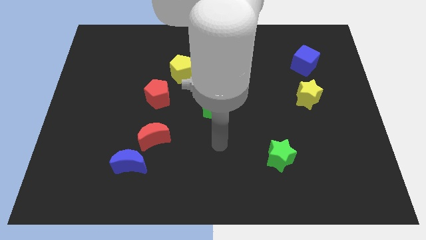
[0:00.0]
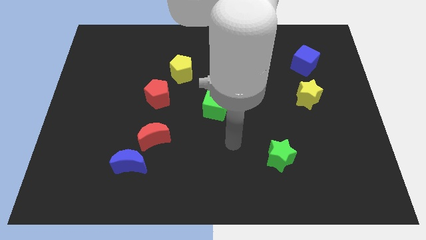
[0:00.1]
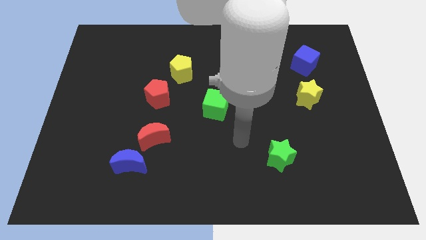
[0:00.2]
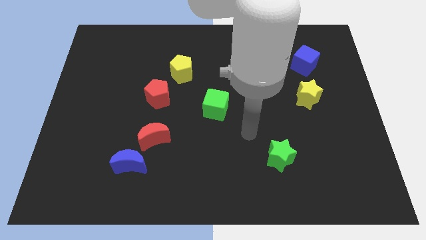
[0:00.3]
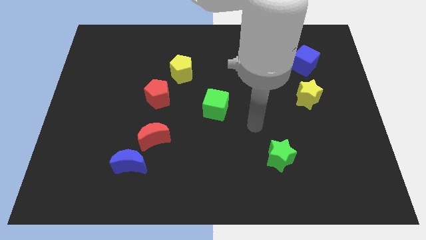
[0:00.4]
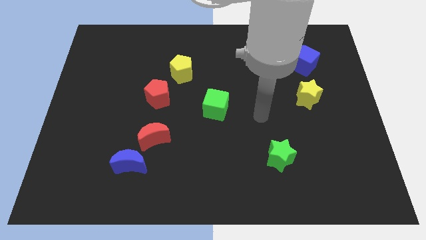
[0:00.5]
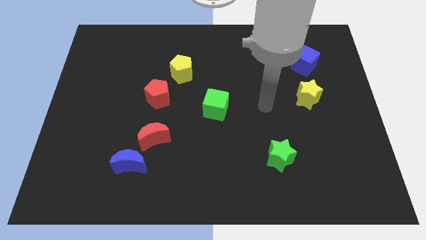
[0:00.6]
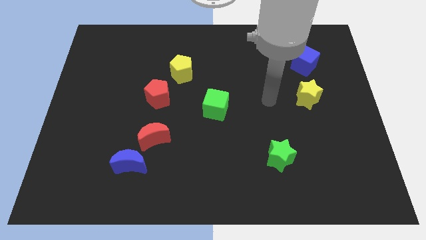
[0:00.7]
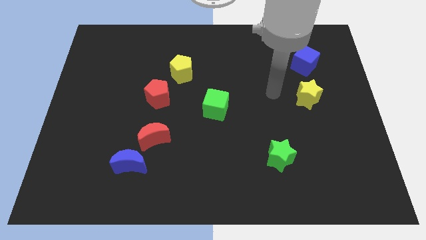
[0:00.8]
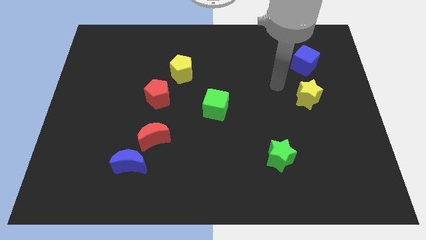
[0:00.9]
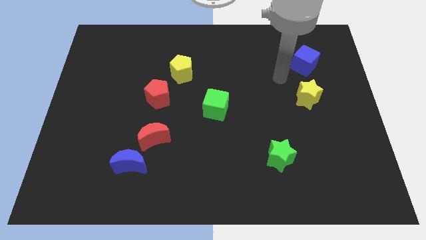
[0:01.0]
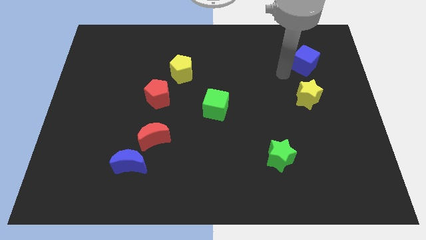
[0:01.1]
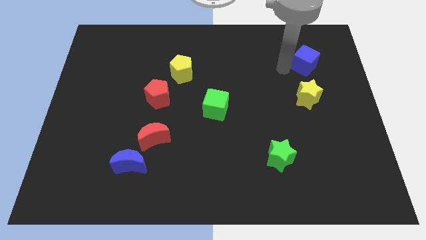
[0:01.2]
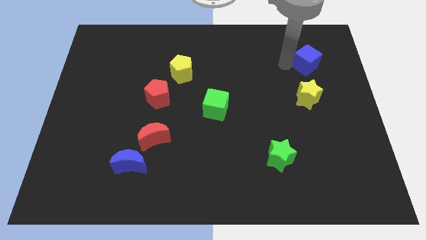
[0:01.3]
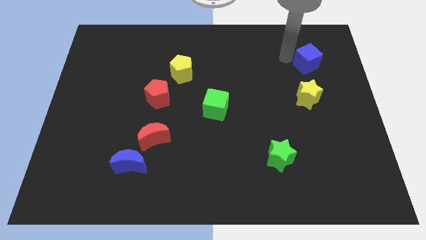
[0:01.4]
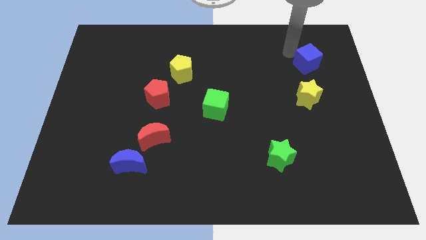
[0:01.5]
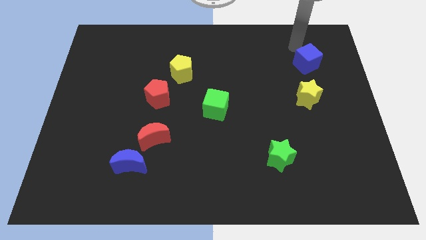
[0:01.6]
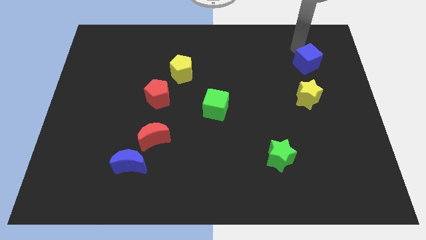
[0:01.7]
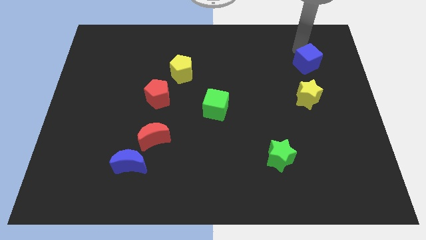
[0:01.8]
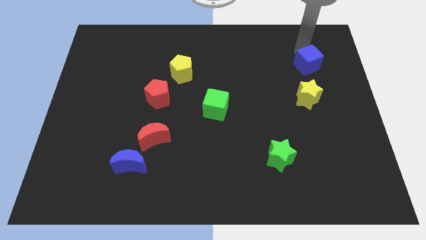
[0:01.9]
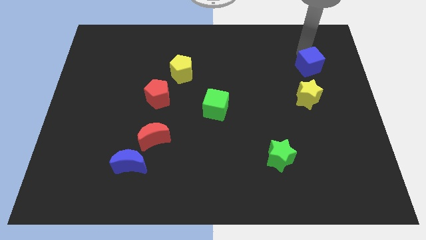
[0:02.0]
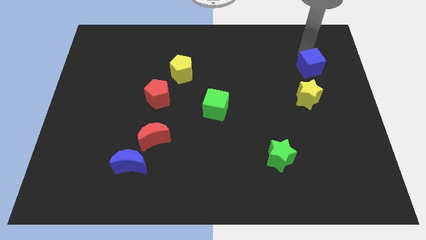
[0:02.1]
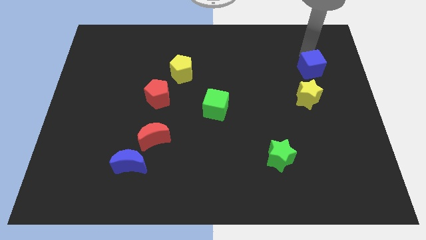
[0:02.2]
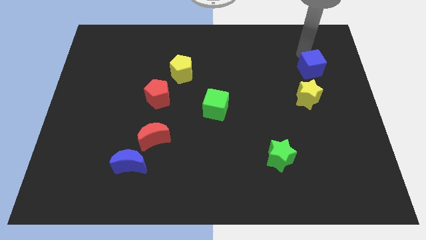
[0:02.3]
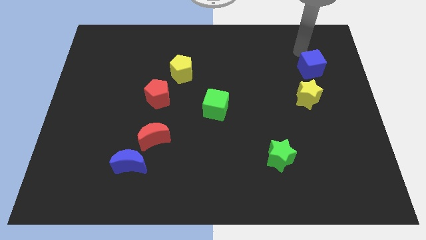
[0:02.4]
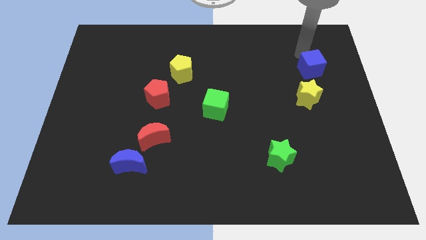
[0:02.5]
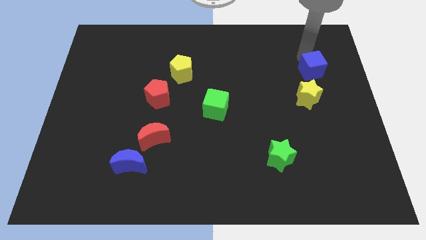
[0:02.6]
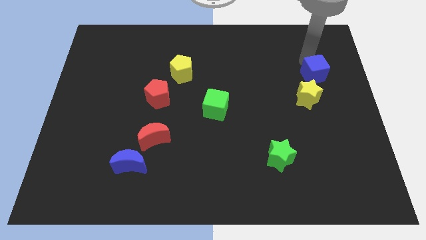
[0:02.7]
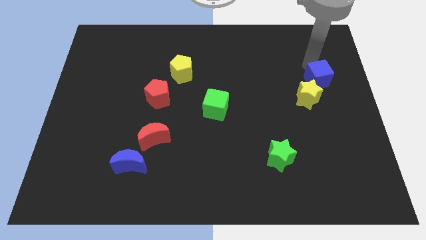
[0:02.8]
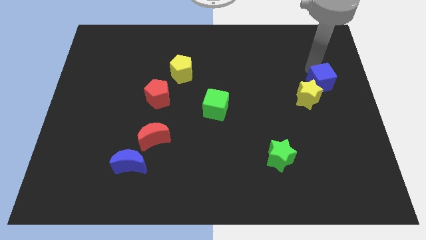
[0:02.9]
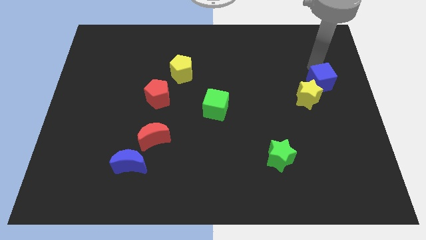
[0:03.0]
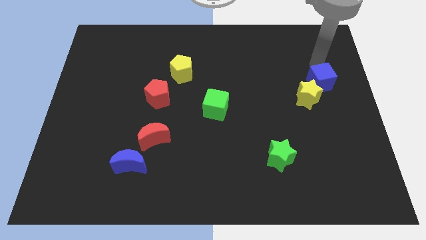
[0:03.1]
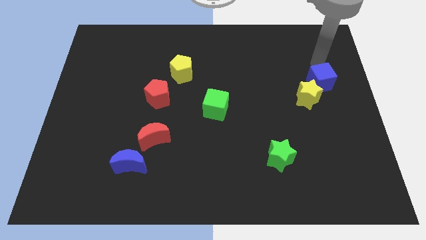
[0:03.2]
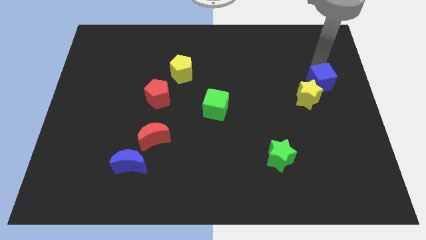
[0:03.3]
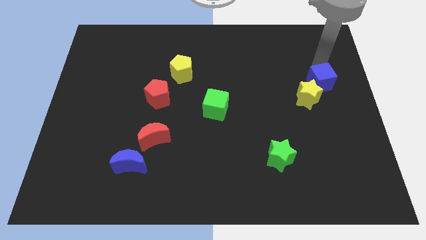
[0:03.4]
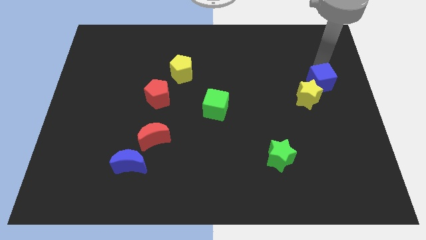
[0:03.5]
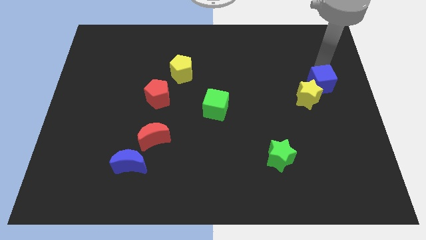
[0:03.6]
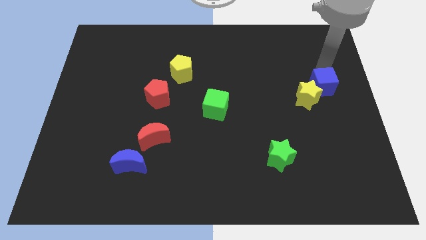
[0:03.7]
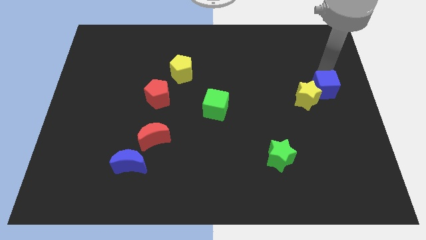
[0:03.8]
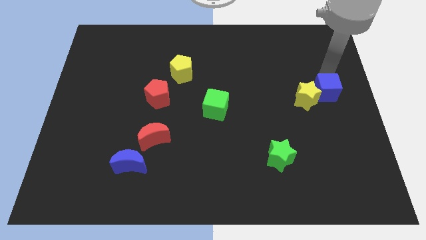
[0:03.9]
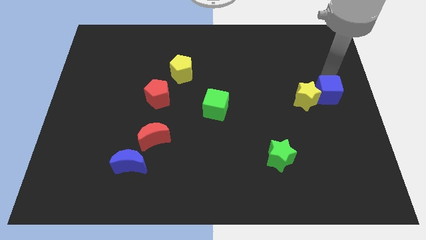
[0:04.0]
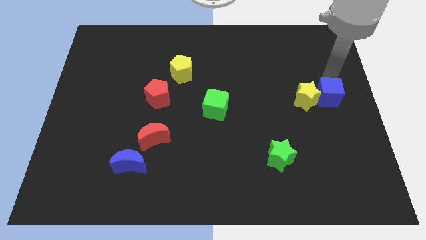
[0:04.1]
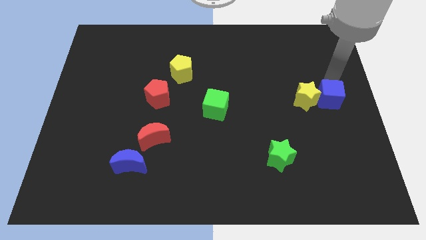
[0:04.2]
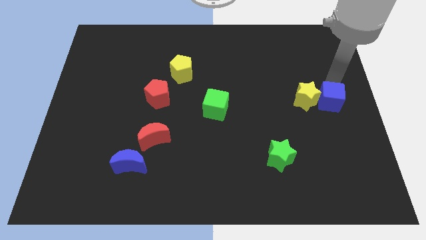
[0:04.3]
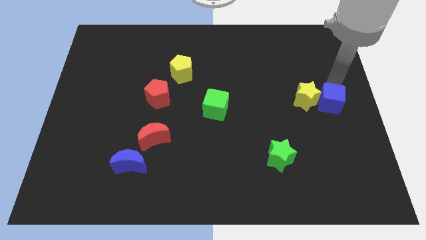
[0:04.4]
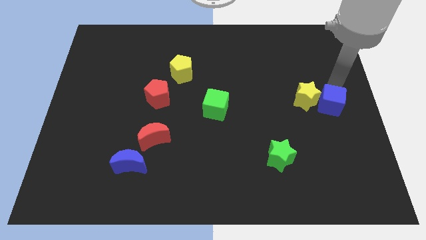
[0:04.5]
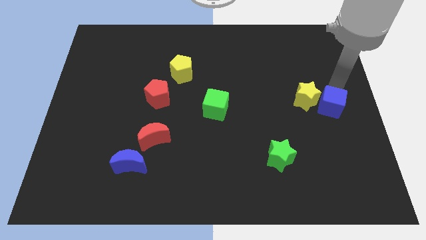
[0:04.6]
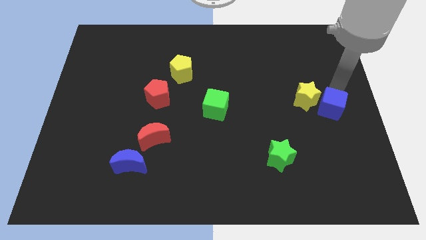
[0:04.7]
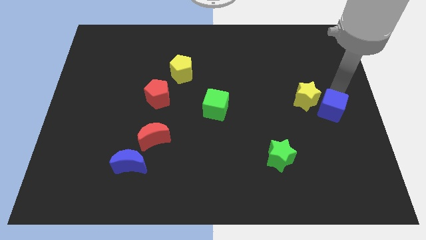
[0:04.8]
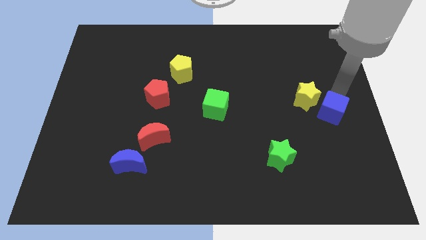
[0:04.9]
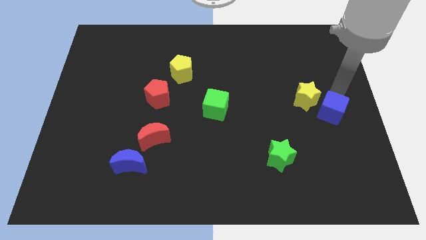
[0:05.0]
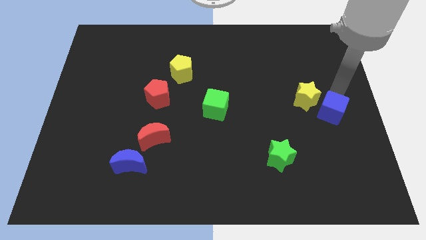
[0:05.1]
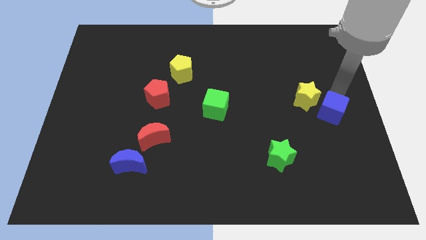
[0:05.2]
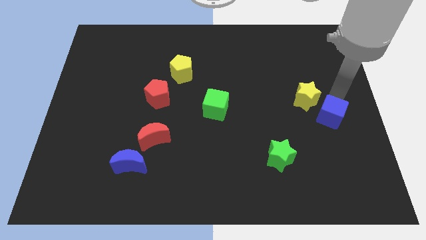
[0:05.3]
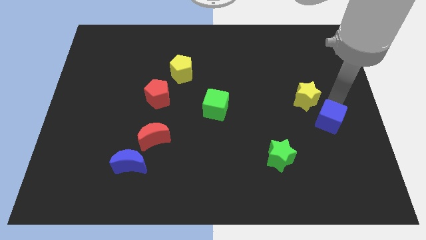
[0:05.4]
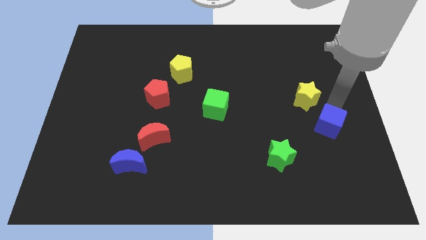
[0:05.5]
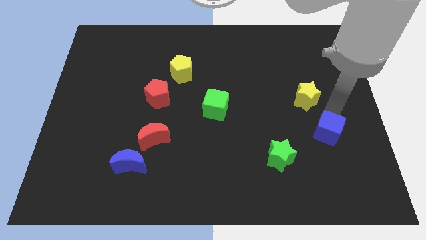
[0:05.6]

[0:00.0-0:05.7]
push the blue cube down

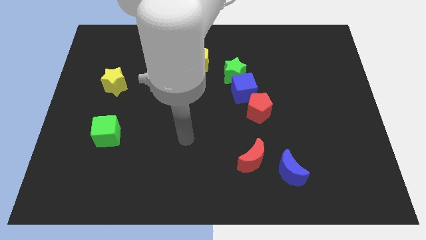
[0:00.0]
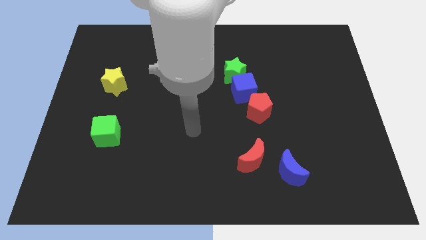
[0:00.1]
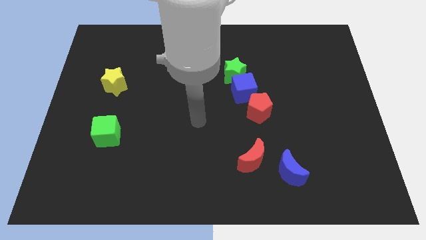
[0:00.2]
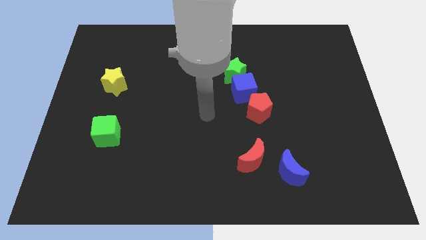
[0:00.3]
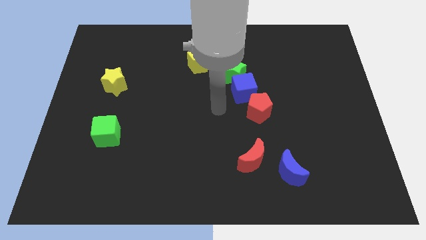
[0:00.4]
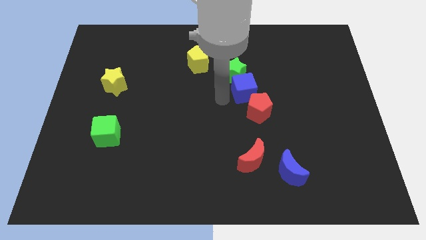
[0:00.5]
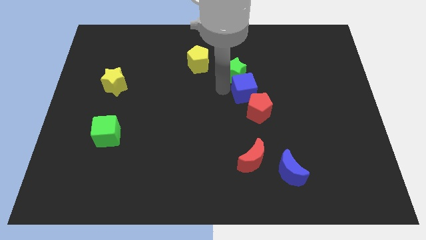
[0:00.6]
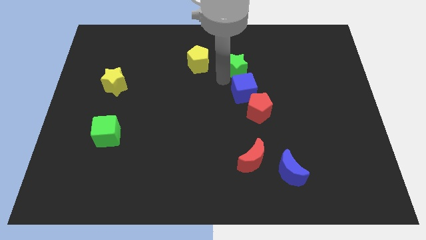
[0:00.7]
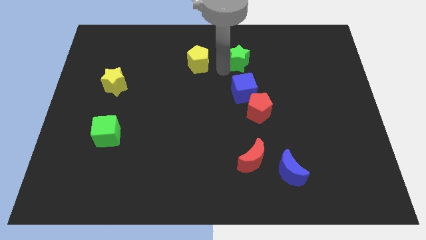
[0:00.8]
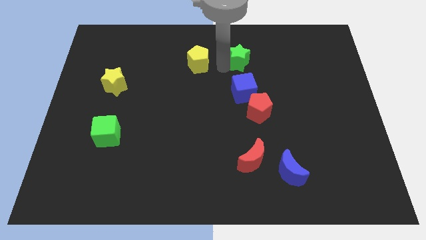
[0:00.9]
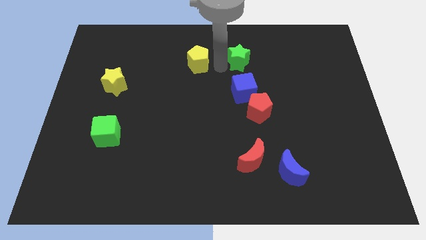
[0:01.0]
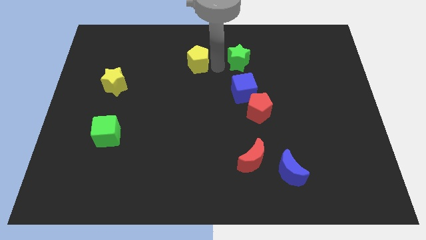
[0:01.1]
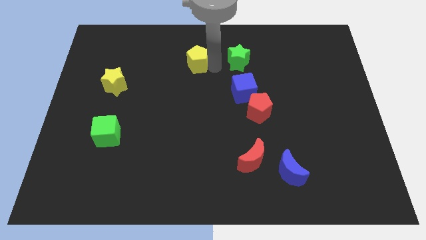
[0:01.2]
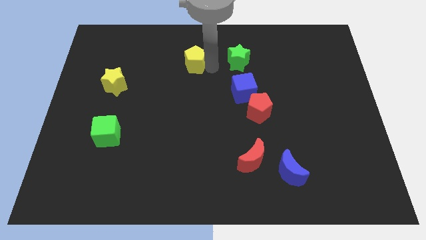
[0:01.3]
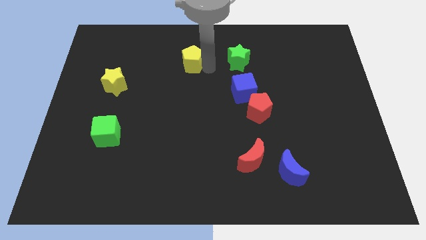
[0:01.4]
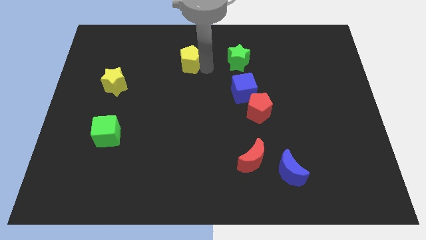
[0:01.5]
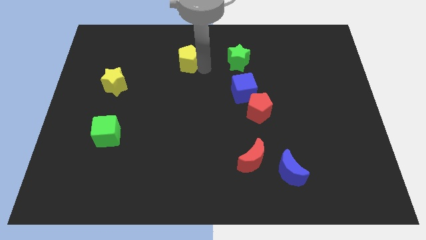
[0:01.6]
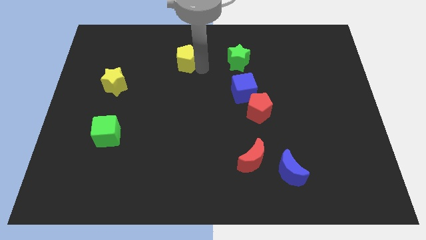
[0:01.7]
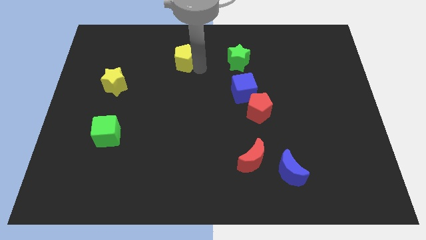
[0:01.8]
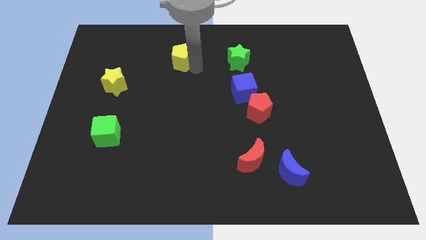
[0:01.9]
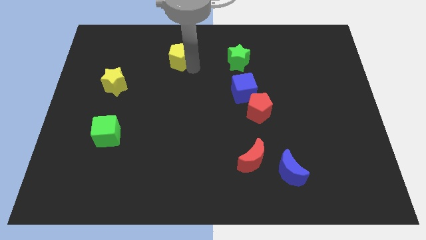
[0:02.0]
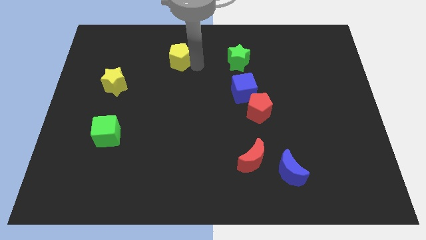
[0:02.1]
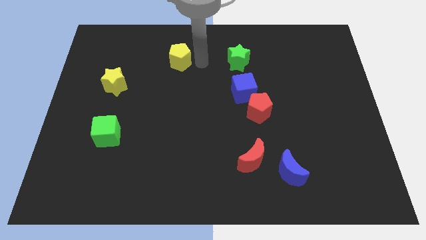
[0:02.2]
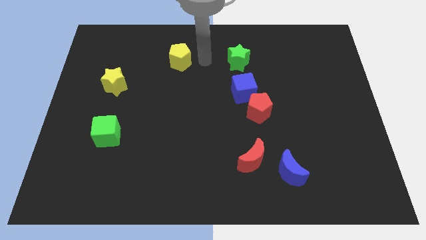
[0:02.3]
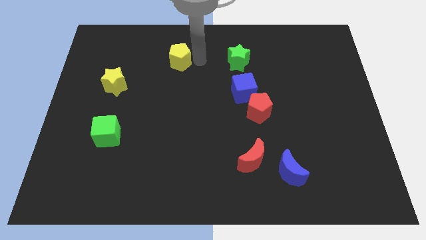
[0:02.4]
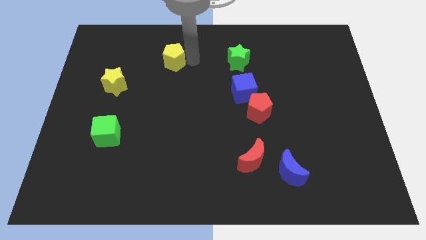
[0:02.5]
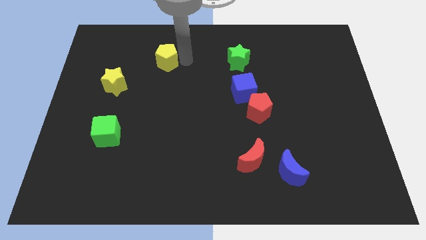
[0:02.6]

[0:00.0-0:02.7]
slightly push the yellow pentagon left
